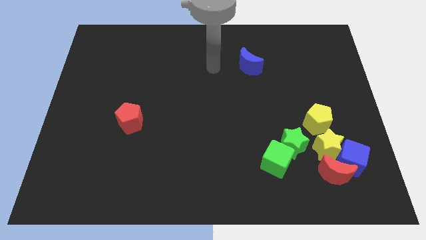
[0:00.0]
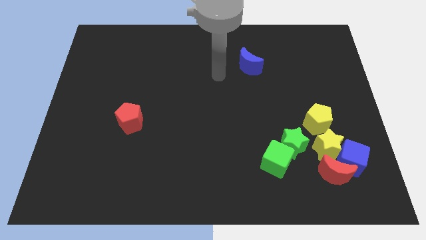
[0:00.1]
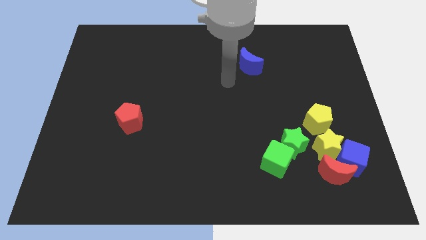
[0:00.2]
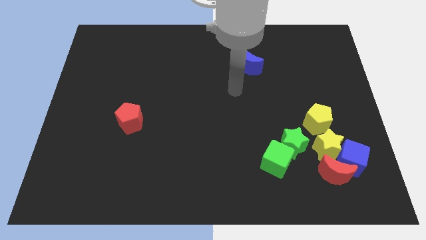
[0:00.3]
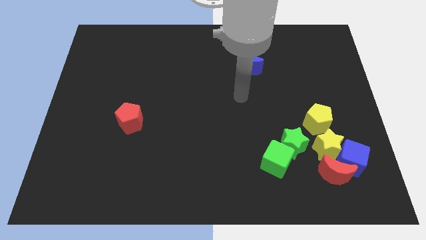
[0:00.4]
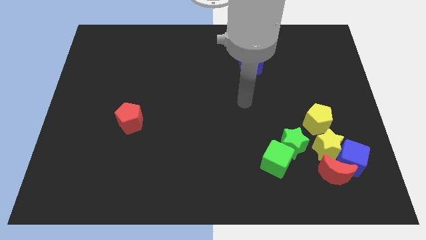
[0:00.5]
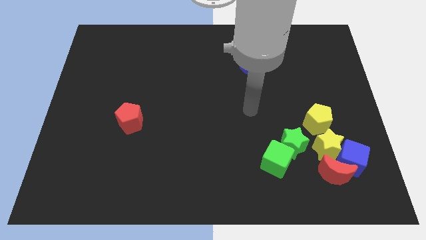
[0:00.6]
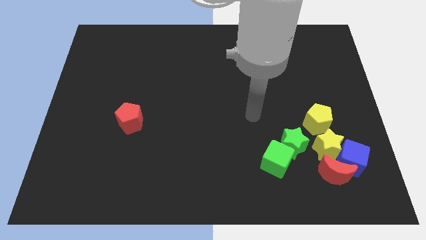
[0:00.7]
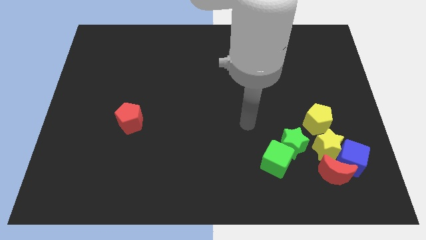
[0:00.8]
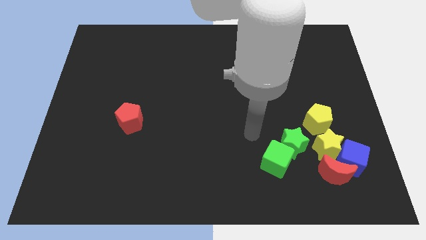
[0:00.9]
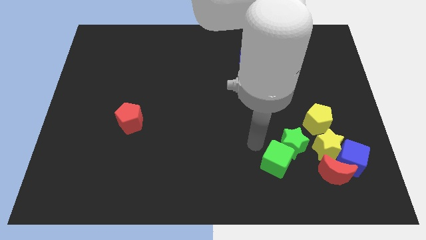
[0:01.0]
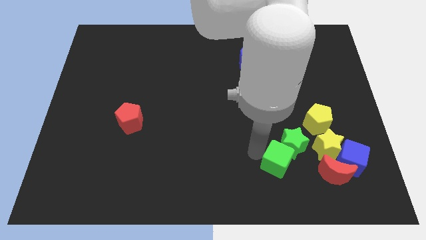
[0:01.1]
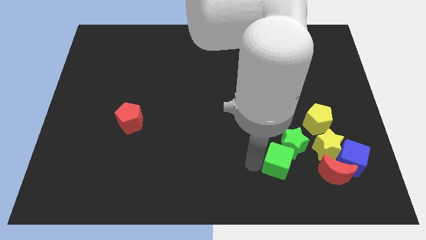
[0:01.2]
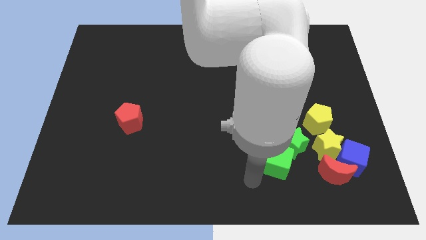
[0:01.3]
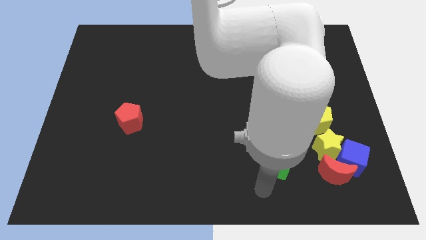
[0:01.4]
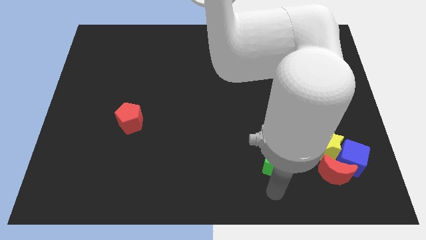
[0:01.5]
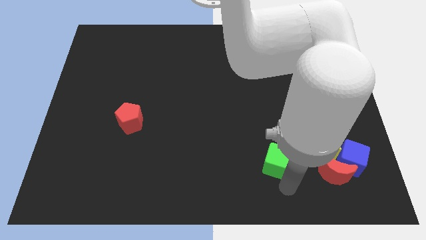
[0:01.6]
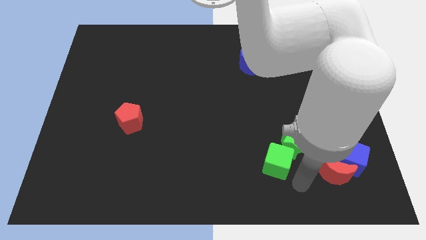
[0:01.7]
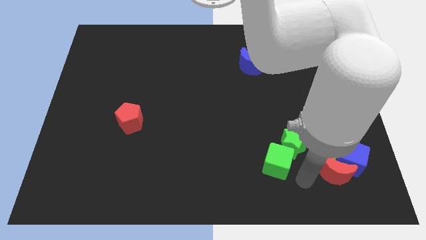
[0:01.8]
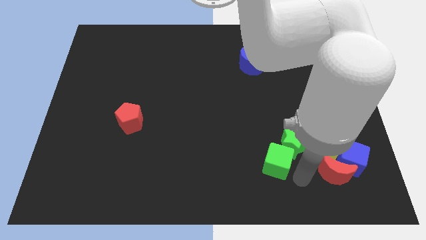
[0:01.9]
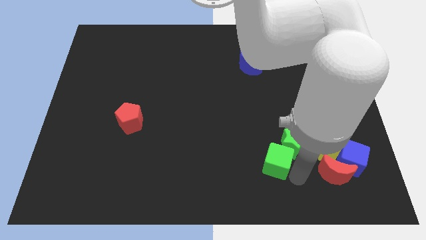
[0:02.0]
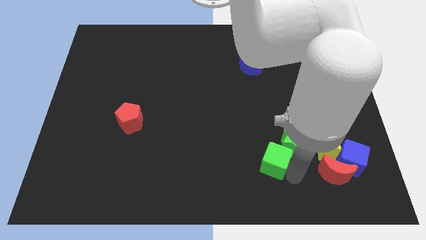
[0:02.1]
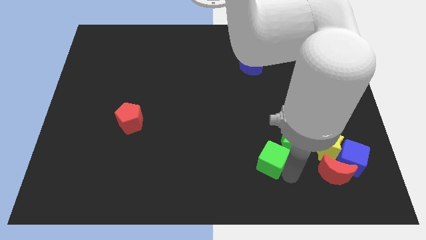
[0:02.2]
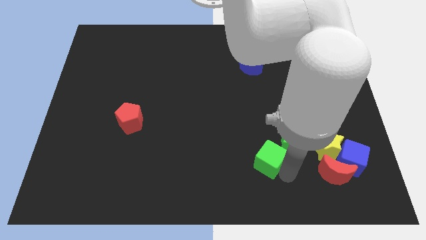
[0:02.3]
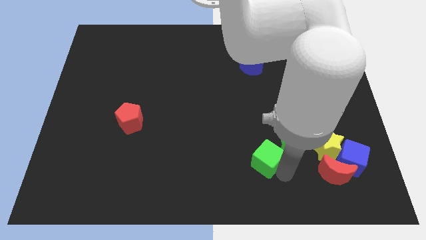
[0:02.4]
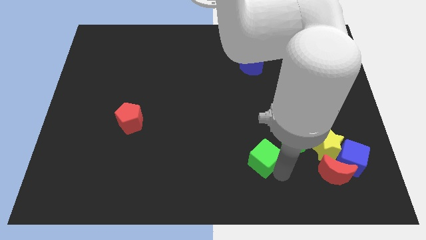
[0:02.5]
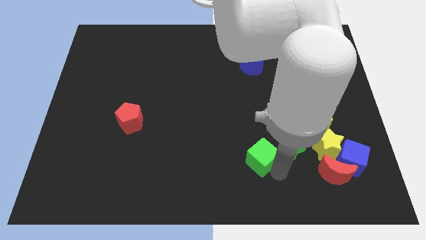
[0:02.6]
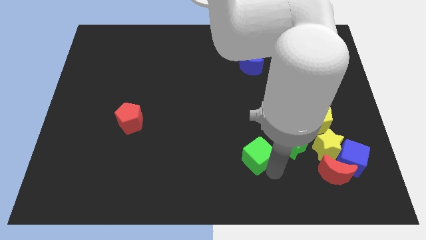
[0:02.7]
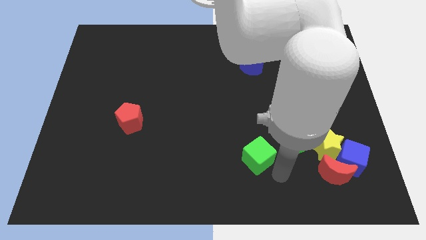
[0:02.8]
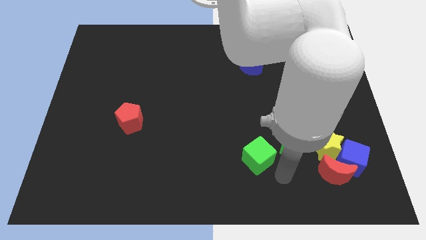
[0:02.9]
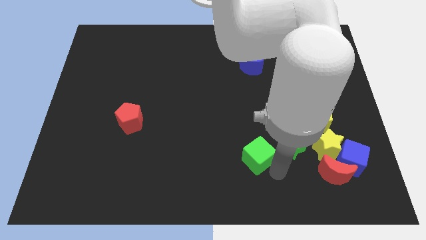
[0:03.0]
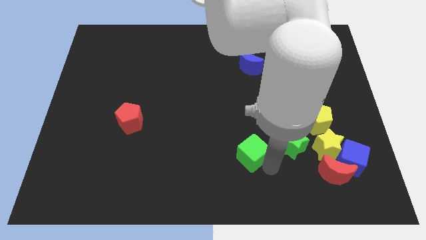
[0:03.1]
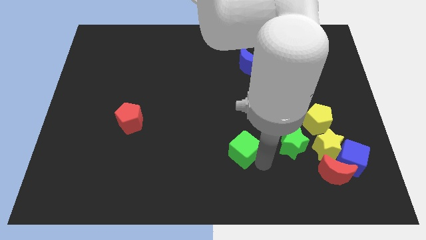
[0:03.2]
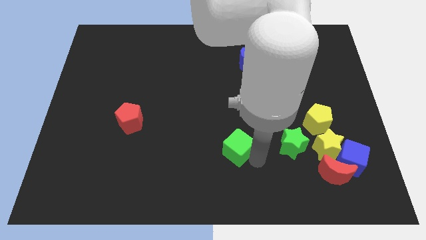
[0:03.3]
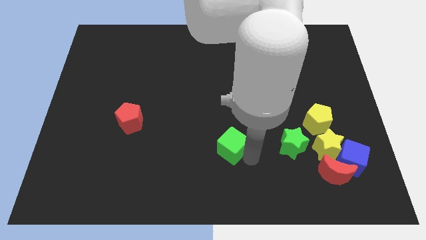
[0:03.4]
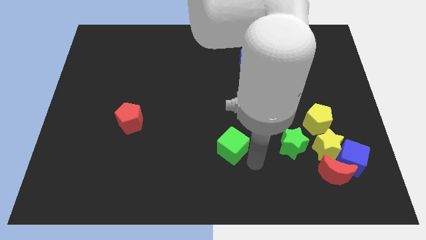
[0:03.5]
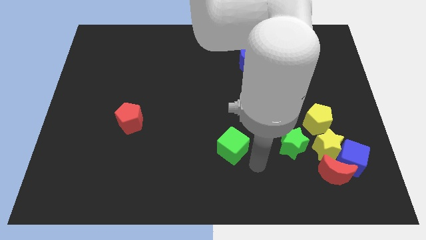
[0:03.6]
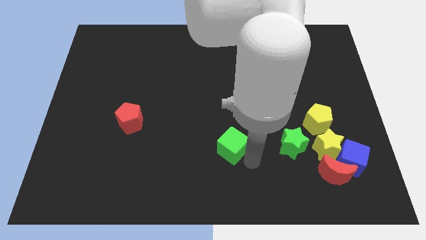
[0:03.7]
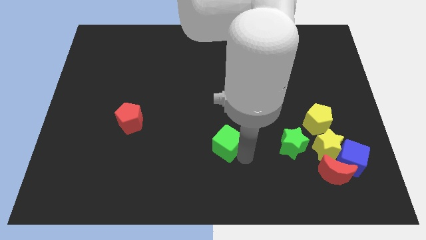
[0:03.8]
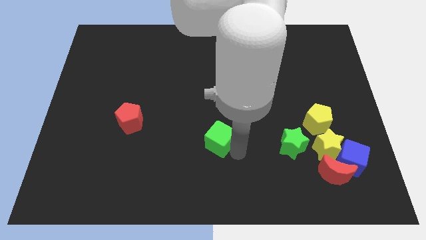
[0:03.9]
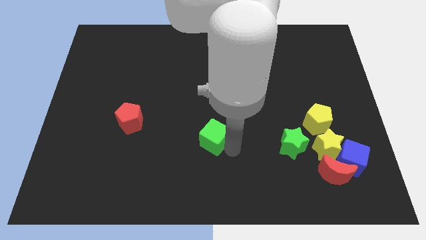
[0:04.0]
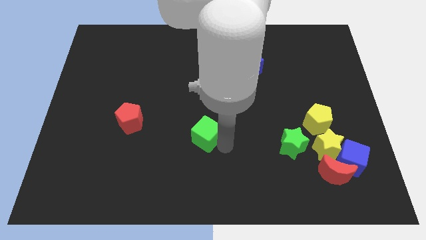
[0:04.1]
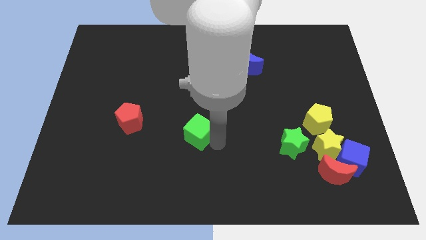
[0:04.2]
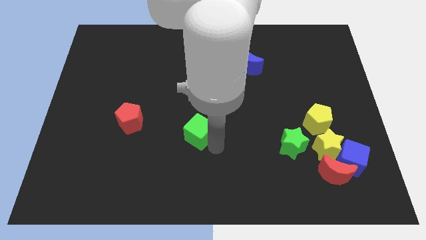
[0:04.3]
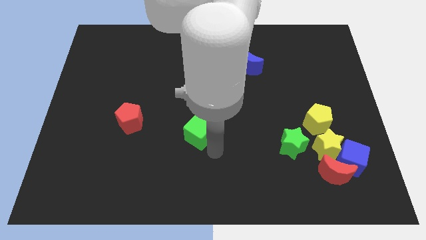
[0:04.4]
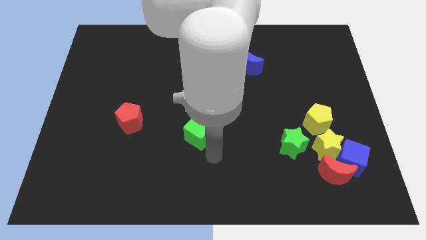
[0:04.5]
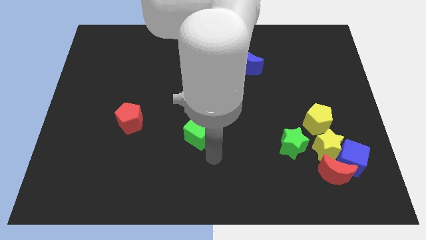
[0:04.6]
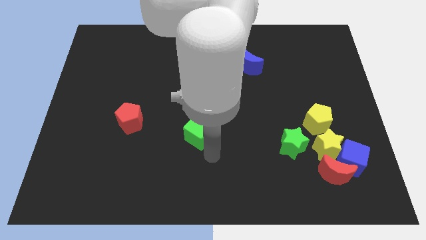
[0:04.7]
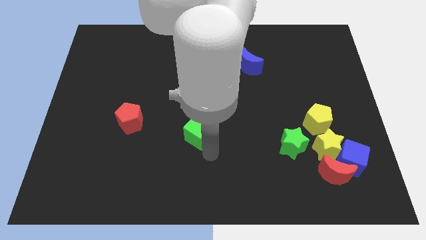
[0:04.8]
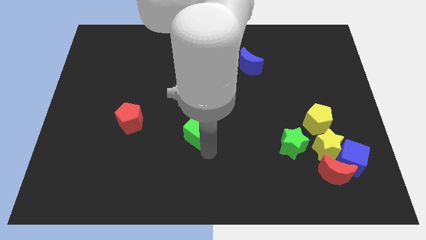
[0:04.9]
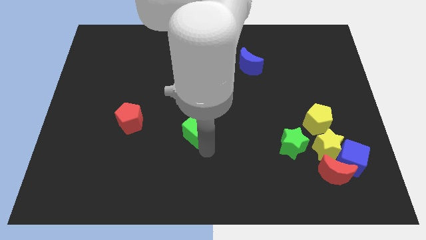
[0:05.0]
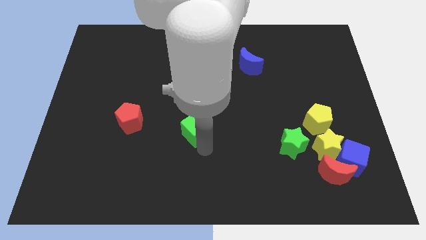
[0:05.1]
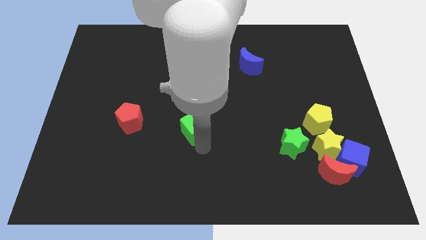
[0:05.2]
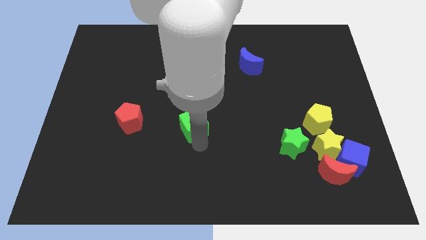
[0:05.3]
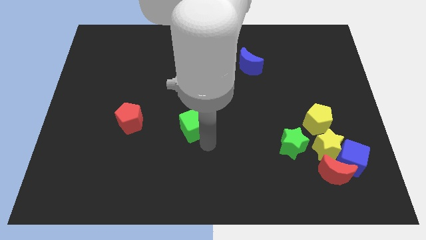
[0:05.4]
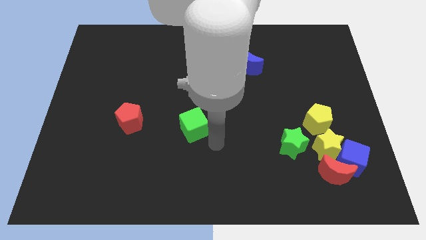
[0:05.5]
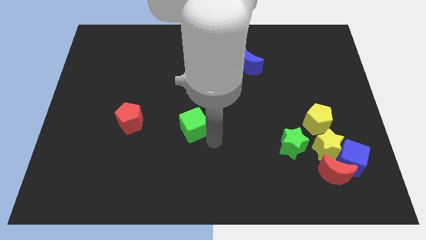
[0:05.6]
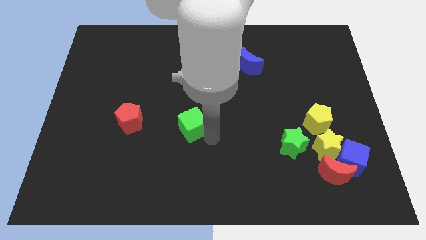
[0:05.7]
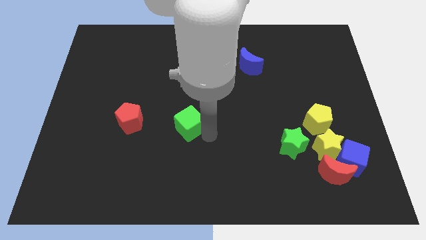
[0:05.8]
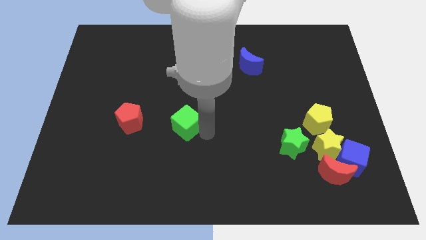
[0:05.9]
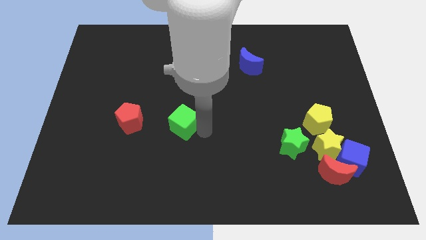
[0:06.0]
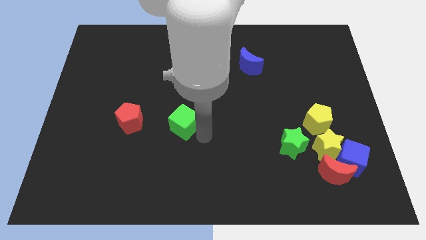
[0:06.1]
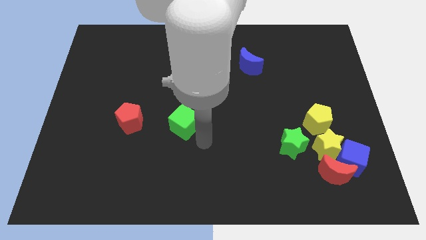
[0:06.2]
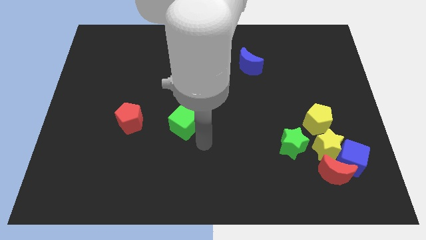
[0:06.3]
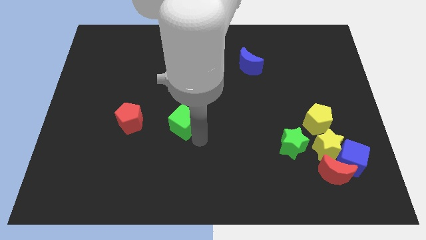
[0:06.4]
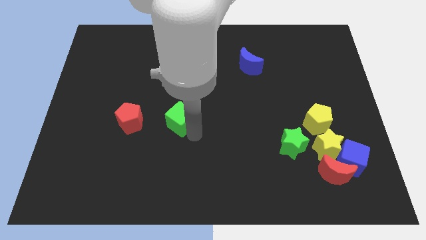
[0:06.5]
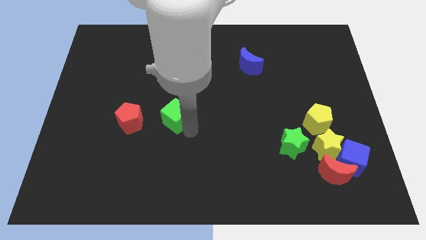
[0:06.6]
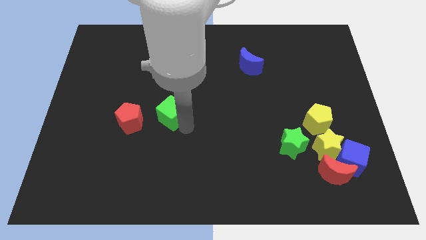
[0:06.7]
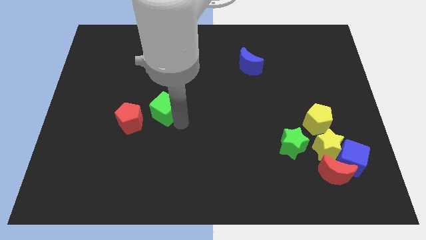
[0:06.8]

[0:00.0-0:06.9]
push the green cube to the top right side of the red pentagon

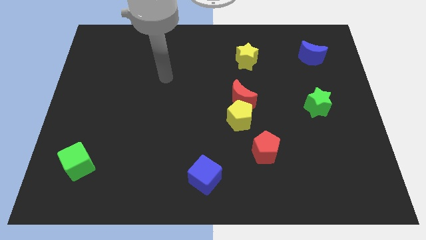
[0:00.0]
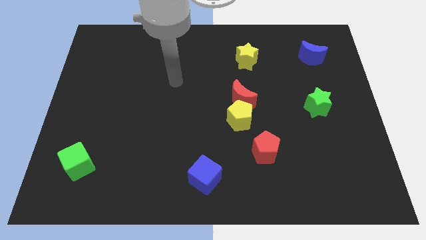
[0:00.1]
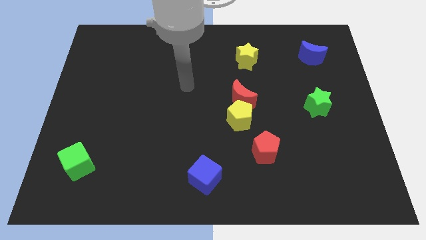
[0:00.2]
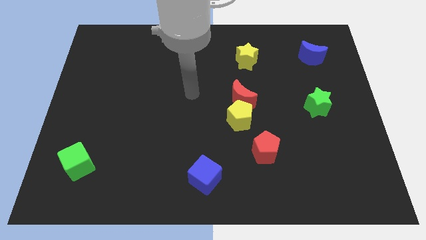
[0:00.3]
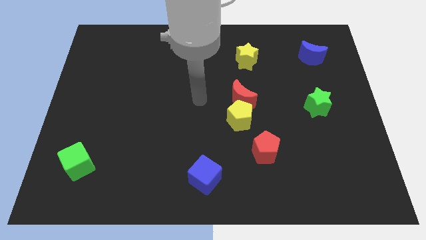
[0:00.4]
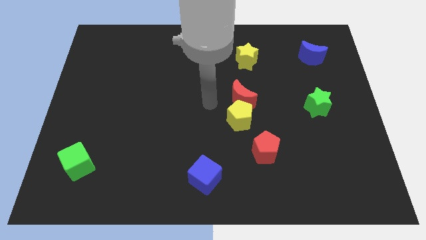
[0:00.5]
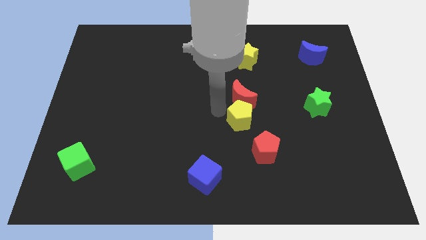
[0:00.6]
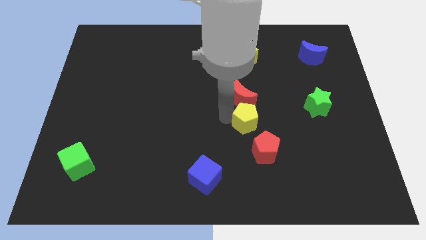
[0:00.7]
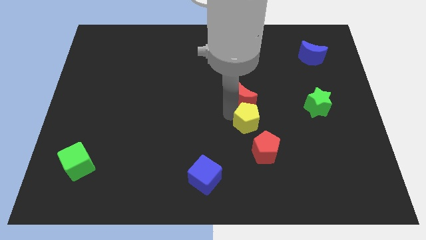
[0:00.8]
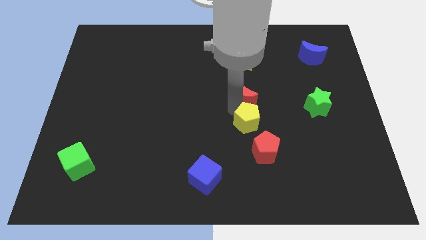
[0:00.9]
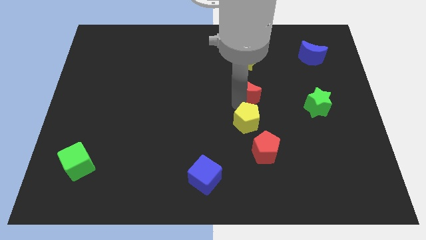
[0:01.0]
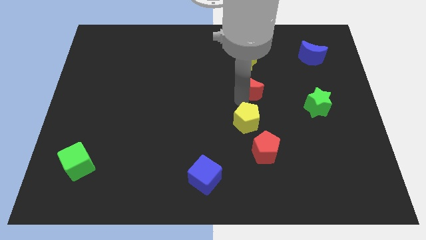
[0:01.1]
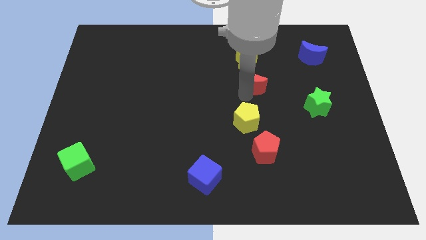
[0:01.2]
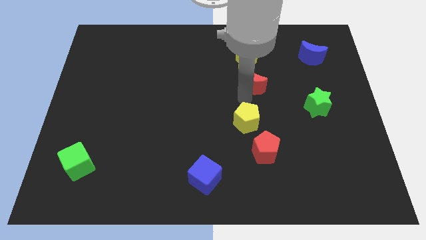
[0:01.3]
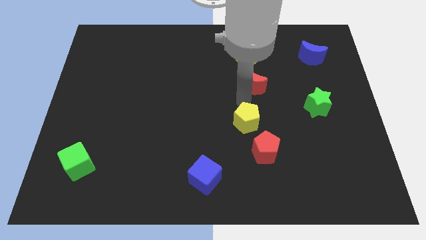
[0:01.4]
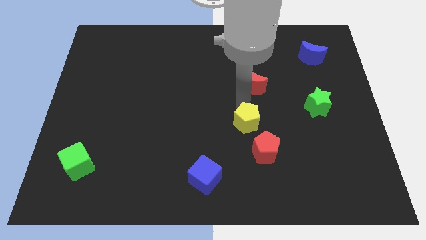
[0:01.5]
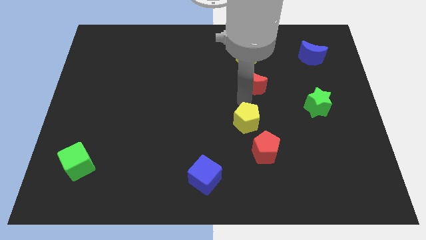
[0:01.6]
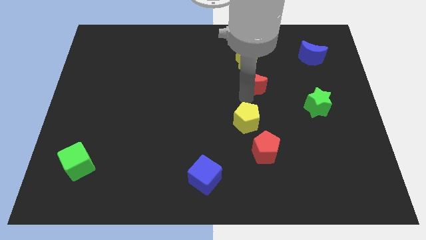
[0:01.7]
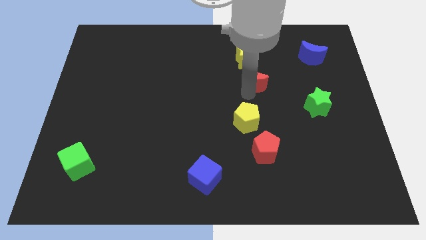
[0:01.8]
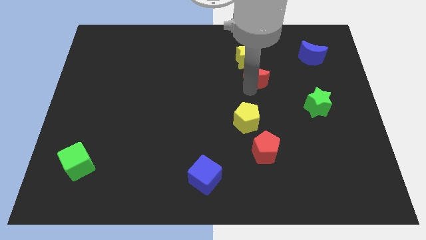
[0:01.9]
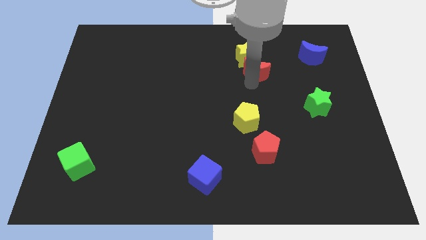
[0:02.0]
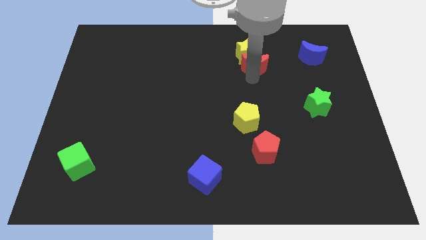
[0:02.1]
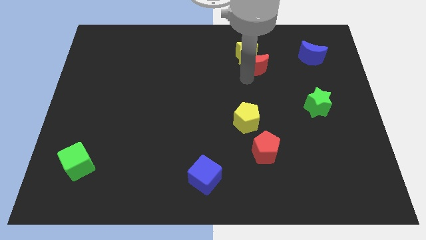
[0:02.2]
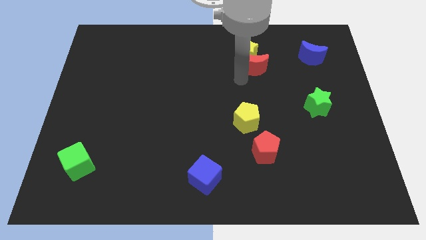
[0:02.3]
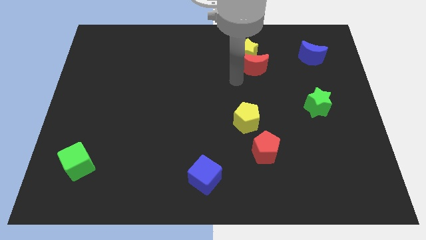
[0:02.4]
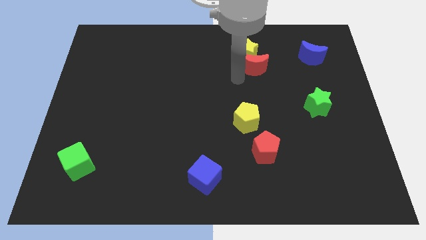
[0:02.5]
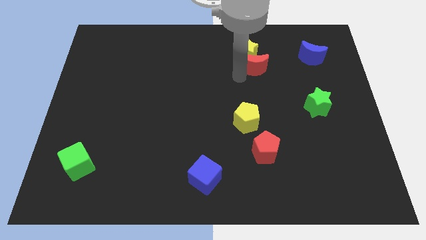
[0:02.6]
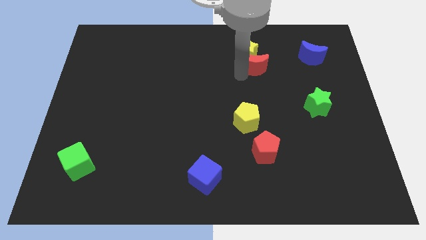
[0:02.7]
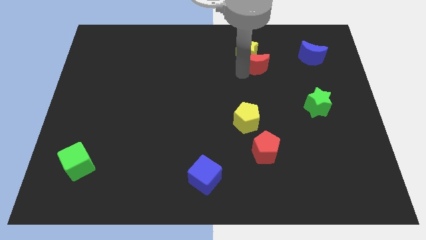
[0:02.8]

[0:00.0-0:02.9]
move the red moon just left of the blue moon
